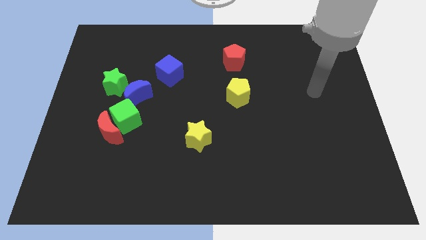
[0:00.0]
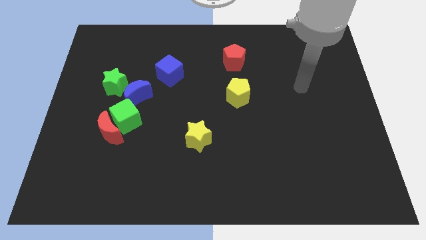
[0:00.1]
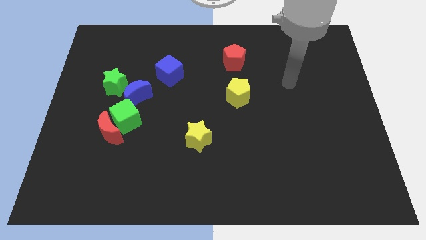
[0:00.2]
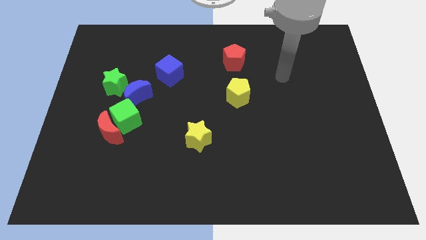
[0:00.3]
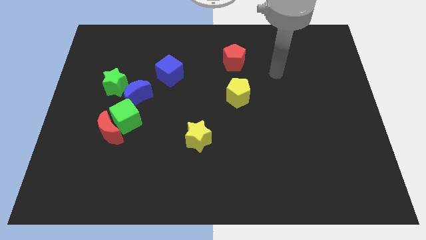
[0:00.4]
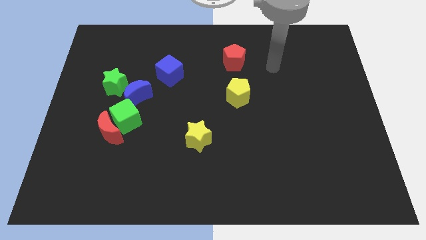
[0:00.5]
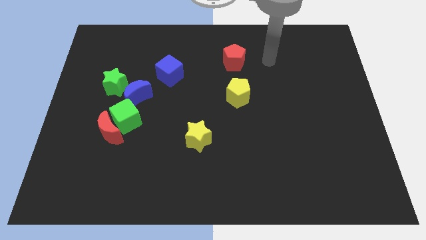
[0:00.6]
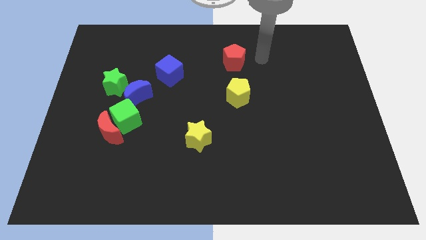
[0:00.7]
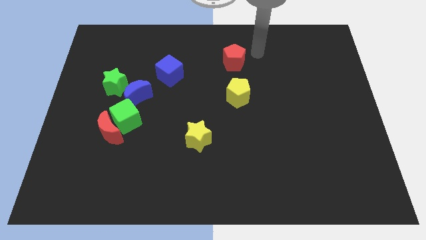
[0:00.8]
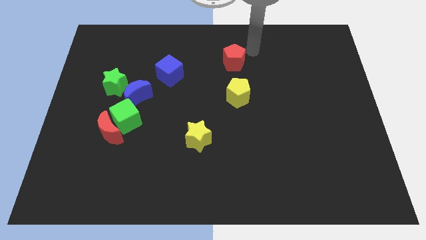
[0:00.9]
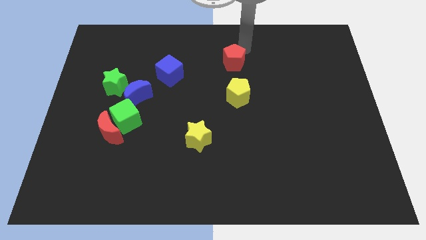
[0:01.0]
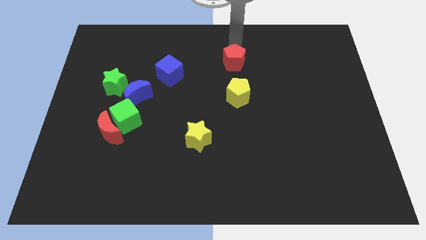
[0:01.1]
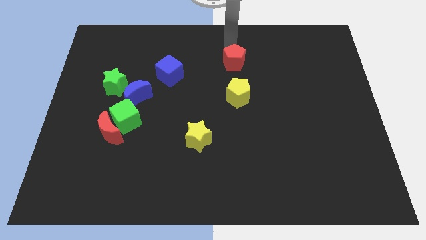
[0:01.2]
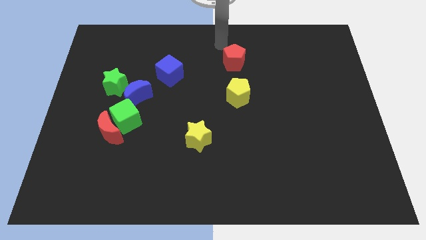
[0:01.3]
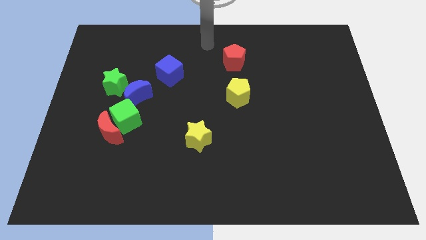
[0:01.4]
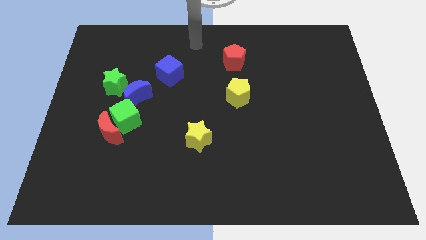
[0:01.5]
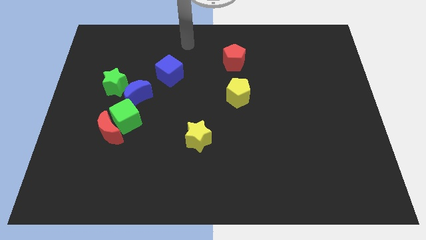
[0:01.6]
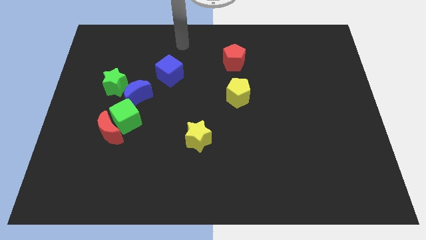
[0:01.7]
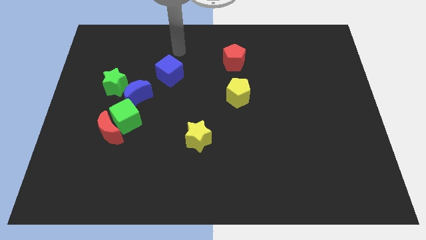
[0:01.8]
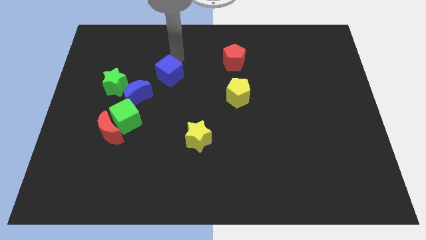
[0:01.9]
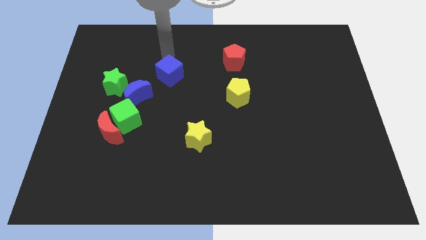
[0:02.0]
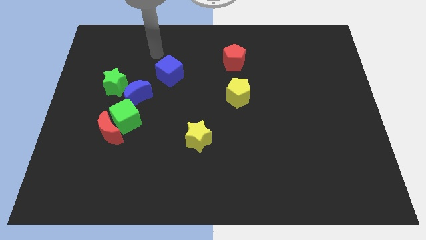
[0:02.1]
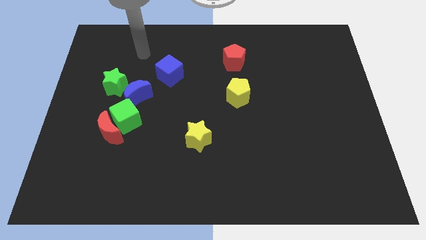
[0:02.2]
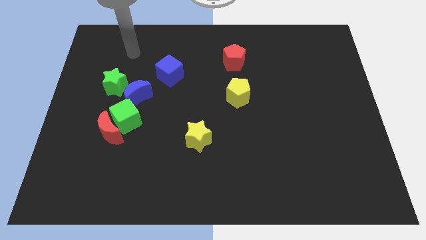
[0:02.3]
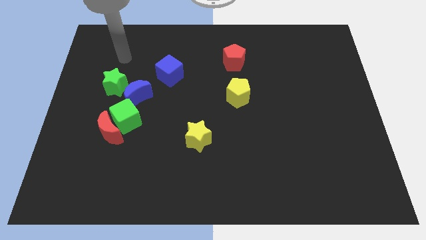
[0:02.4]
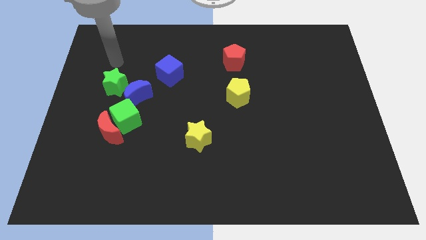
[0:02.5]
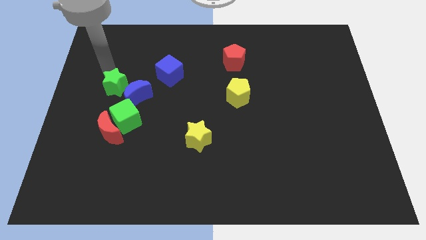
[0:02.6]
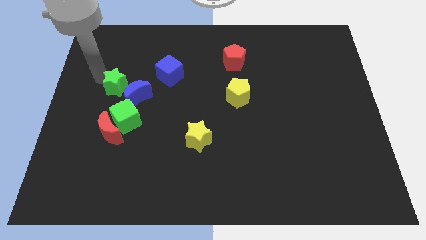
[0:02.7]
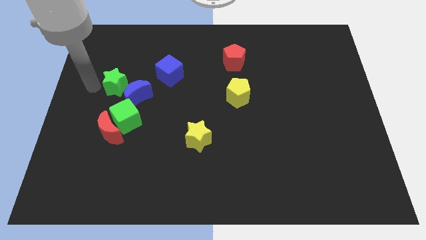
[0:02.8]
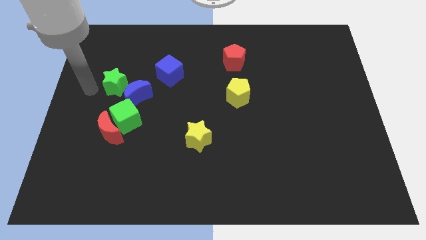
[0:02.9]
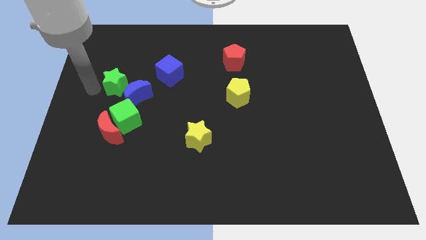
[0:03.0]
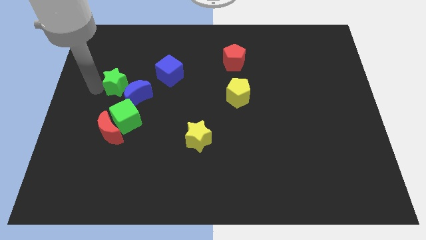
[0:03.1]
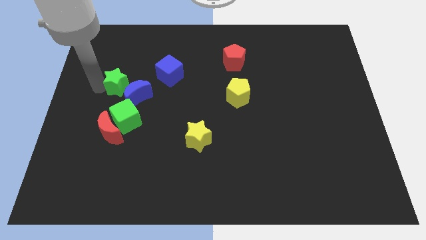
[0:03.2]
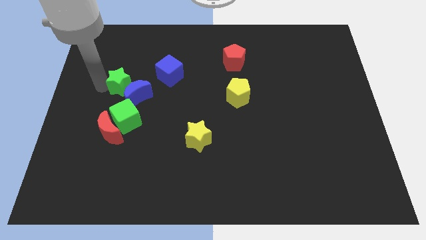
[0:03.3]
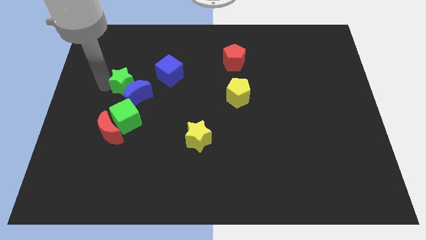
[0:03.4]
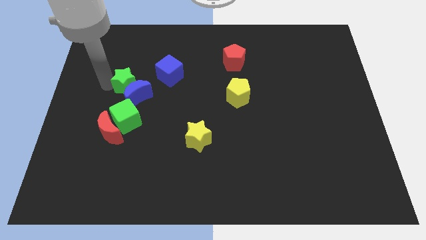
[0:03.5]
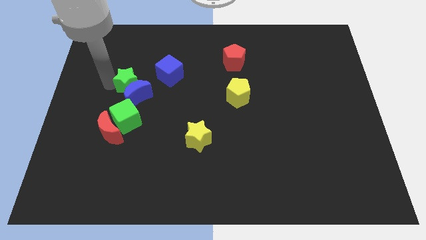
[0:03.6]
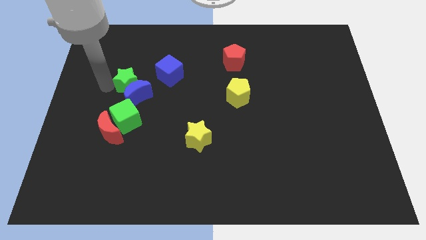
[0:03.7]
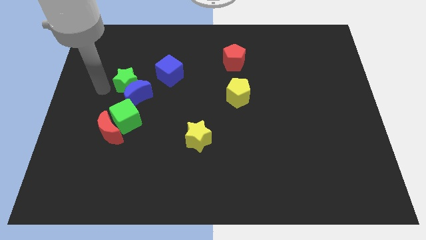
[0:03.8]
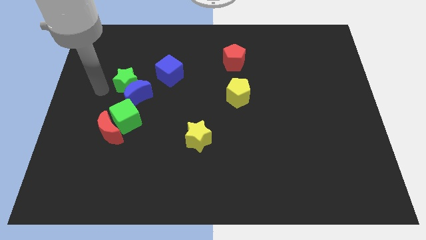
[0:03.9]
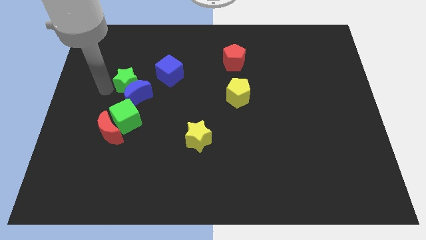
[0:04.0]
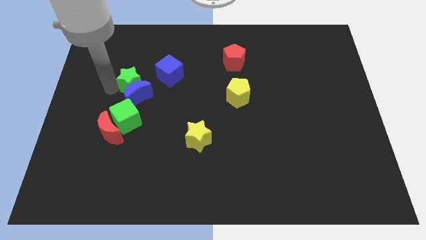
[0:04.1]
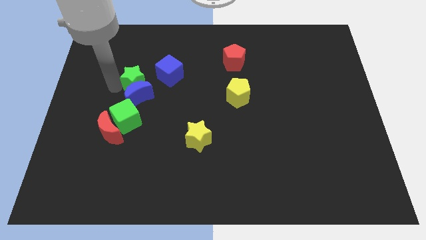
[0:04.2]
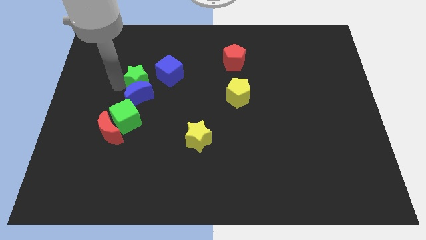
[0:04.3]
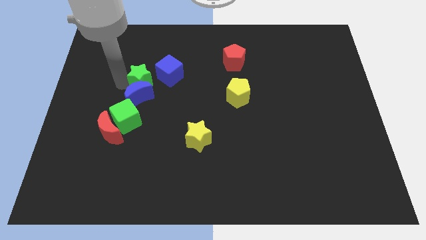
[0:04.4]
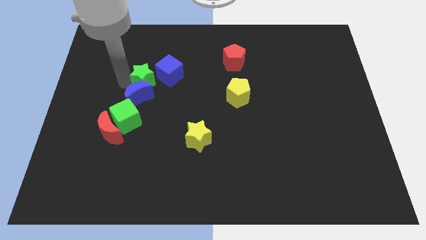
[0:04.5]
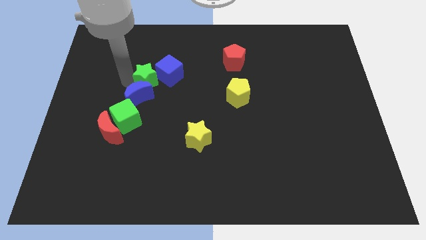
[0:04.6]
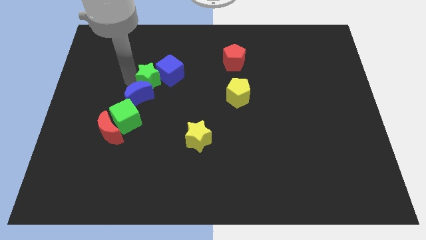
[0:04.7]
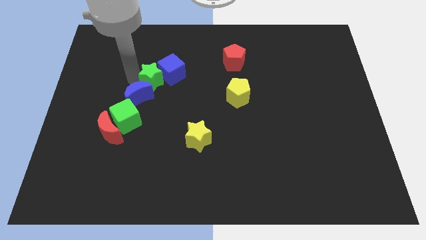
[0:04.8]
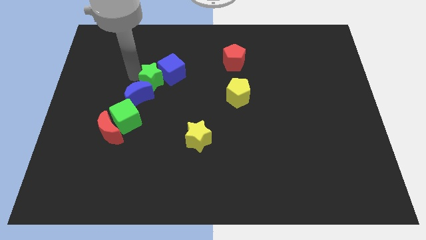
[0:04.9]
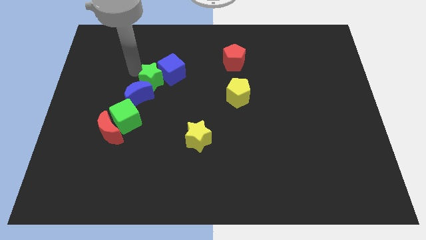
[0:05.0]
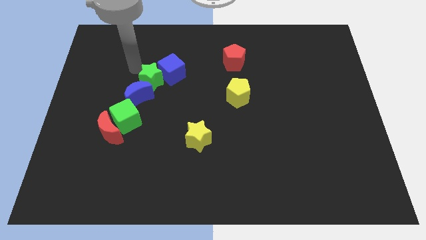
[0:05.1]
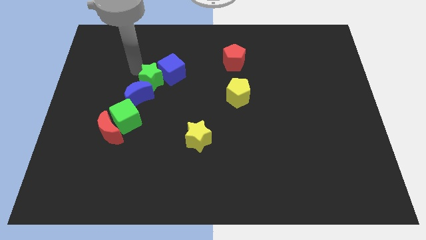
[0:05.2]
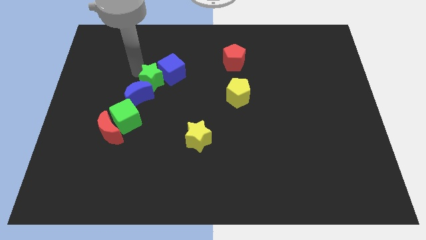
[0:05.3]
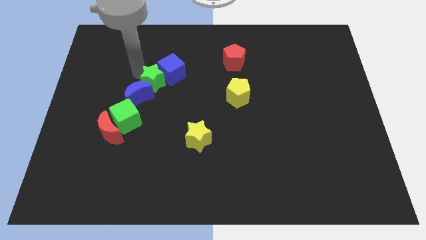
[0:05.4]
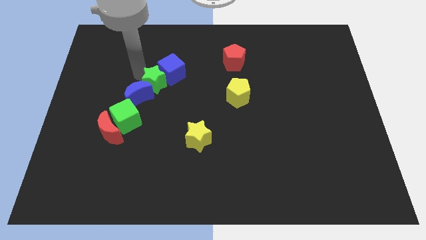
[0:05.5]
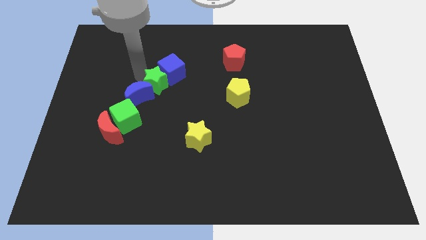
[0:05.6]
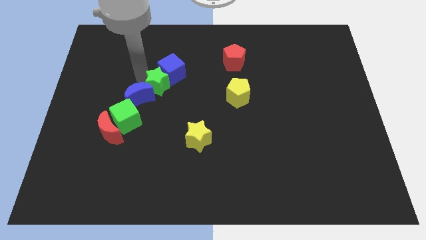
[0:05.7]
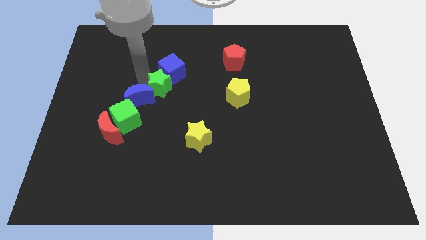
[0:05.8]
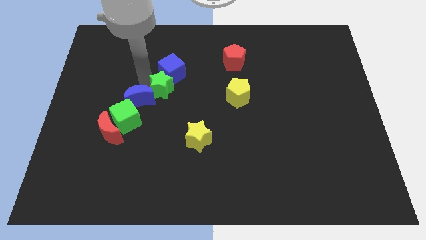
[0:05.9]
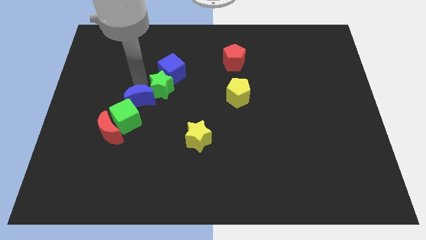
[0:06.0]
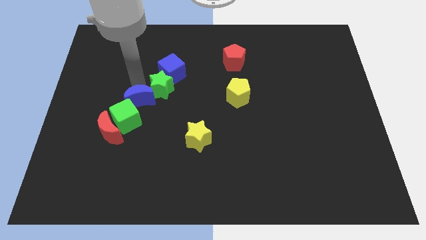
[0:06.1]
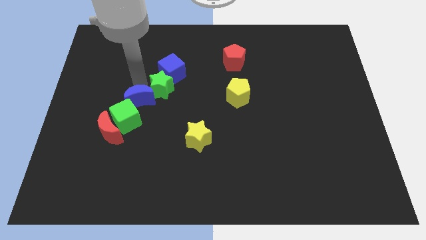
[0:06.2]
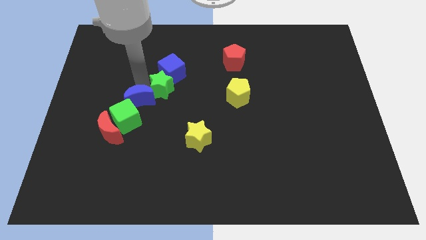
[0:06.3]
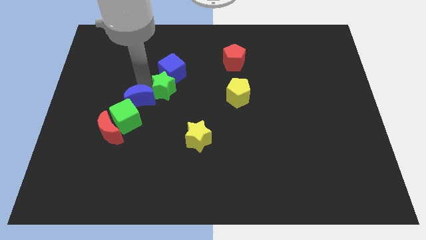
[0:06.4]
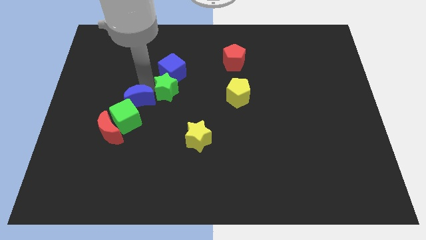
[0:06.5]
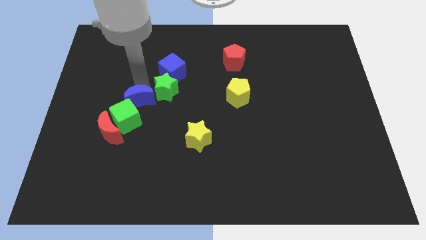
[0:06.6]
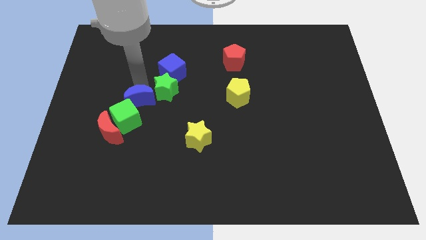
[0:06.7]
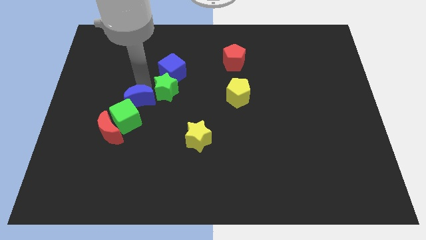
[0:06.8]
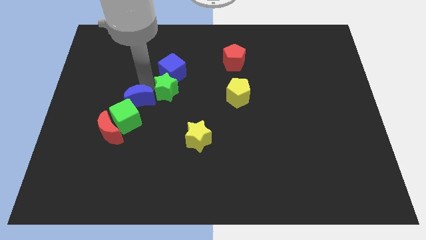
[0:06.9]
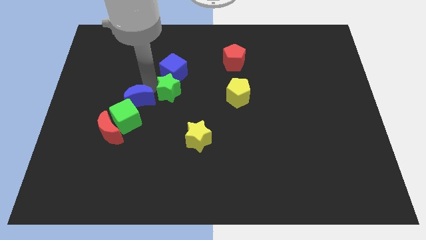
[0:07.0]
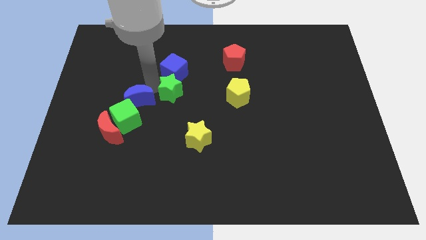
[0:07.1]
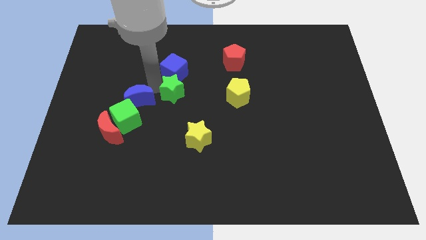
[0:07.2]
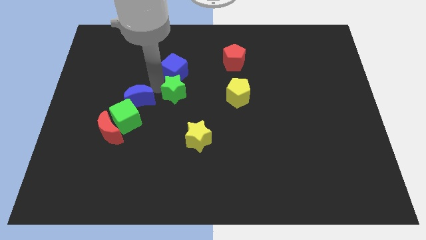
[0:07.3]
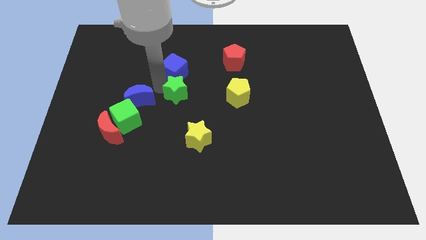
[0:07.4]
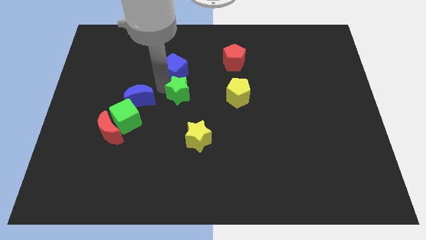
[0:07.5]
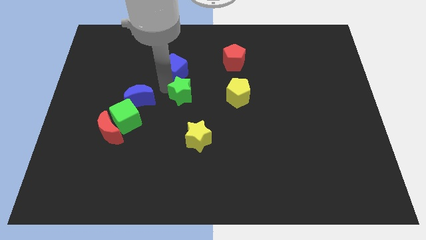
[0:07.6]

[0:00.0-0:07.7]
push the green star above the yellow star
